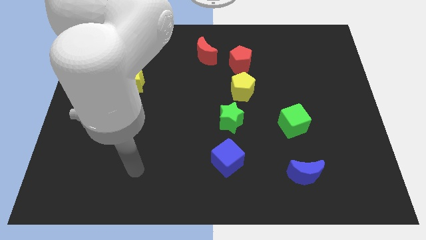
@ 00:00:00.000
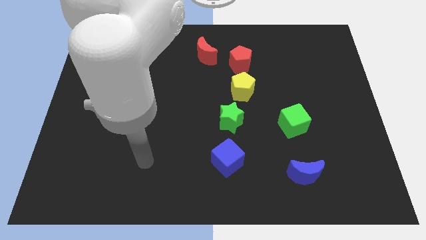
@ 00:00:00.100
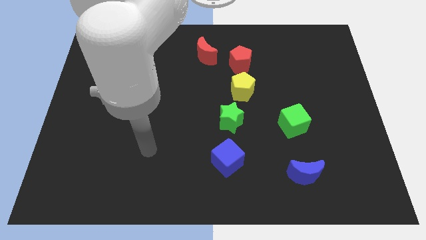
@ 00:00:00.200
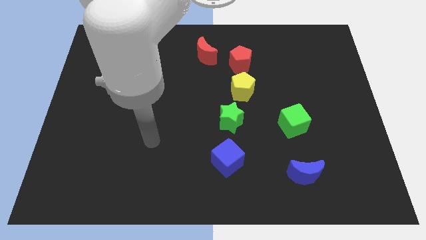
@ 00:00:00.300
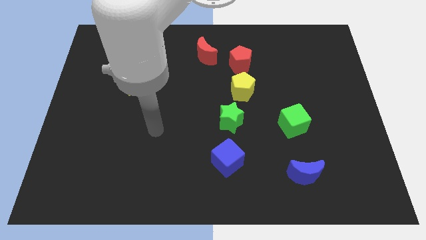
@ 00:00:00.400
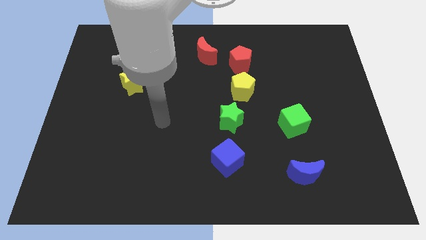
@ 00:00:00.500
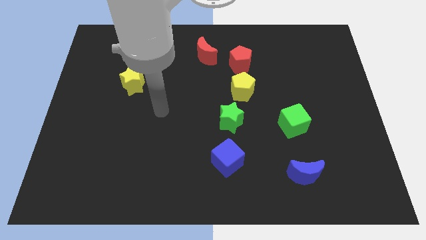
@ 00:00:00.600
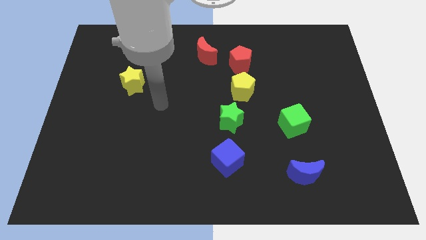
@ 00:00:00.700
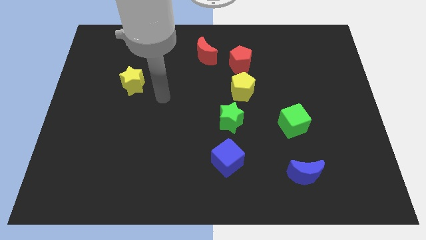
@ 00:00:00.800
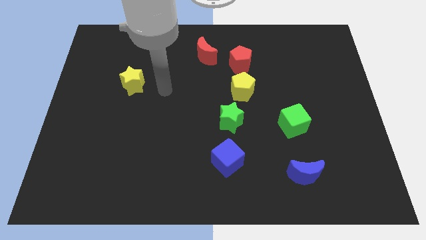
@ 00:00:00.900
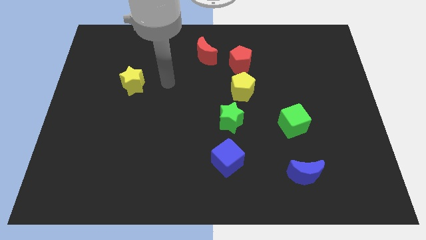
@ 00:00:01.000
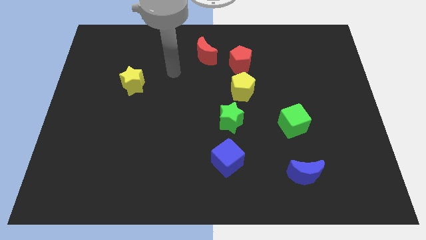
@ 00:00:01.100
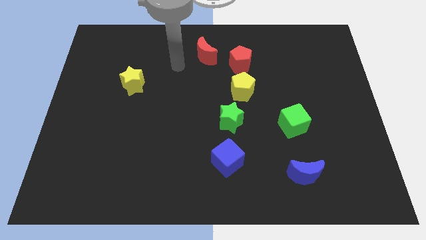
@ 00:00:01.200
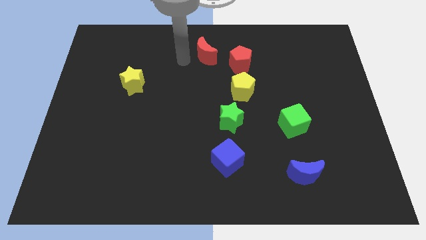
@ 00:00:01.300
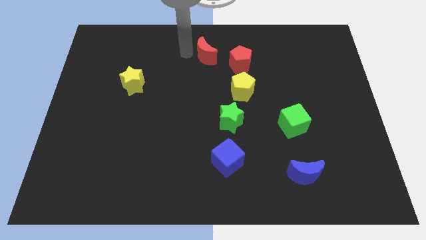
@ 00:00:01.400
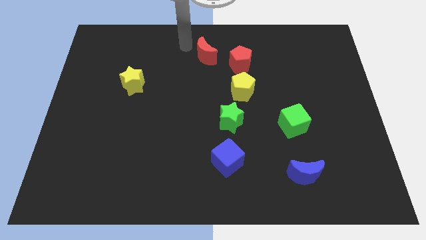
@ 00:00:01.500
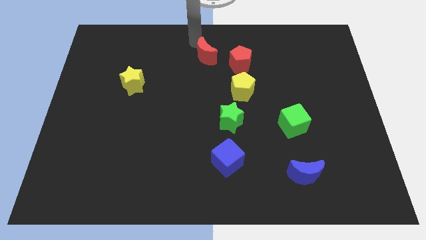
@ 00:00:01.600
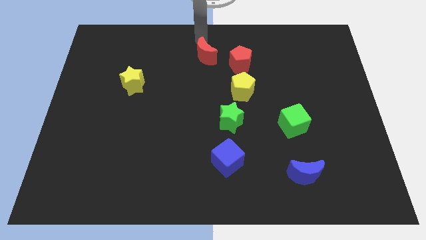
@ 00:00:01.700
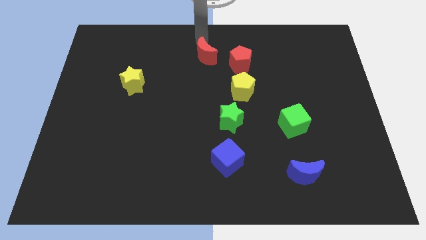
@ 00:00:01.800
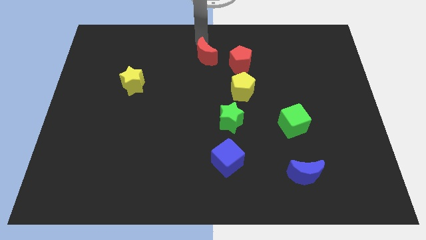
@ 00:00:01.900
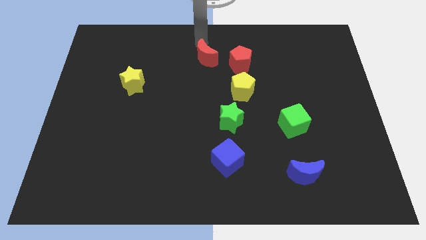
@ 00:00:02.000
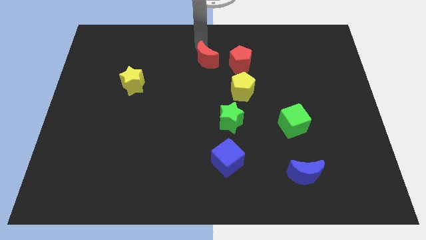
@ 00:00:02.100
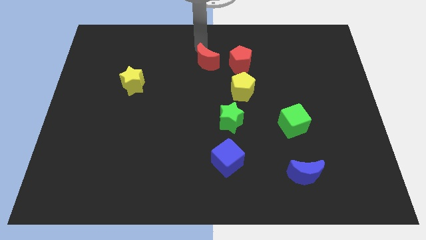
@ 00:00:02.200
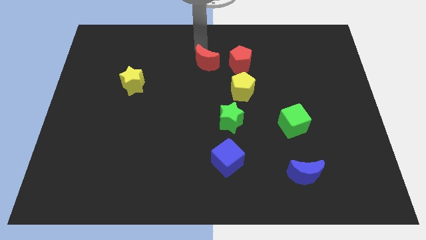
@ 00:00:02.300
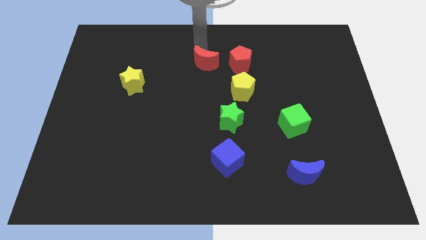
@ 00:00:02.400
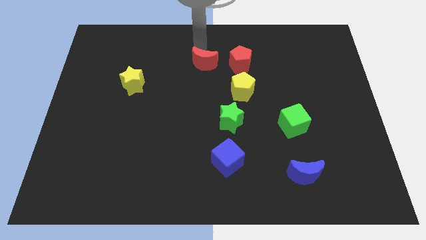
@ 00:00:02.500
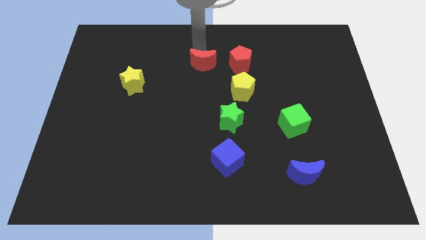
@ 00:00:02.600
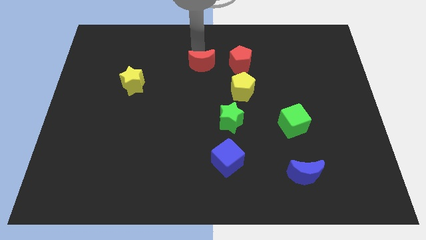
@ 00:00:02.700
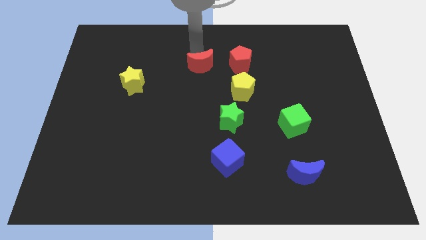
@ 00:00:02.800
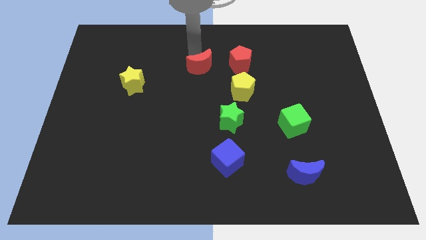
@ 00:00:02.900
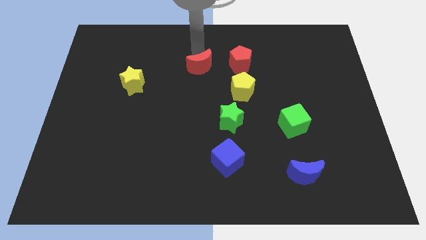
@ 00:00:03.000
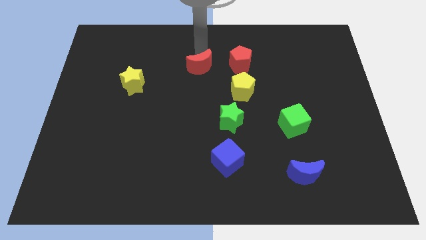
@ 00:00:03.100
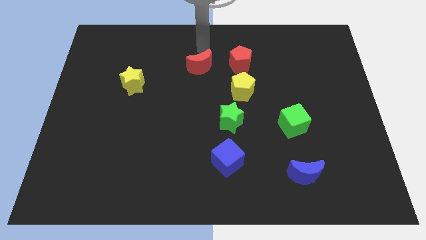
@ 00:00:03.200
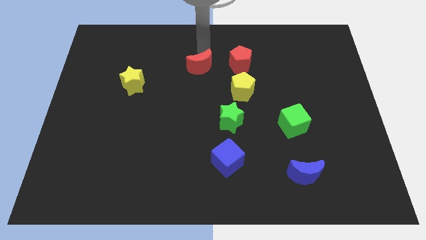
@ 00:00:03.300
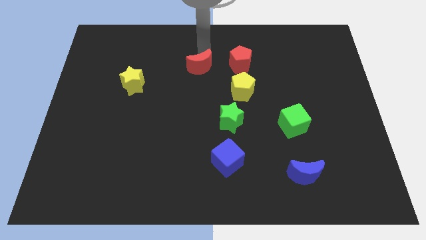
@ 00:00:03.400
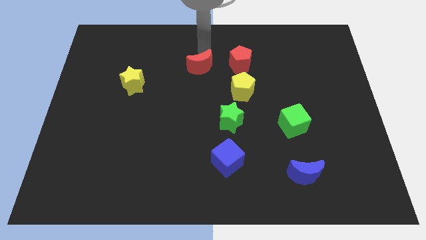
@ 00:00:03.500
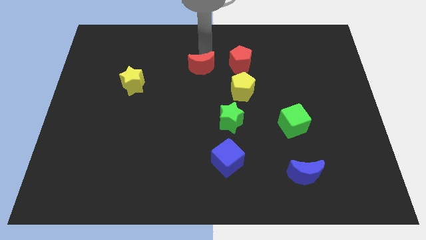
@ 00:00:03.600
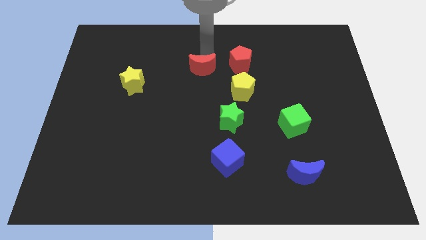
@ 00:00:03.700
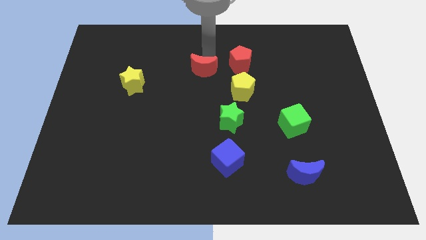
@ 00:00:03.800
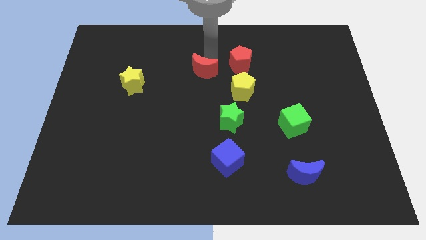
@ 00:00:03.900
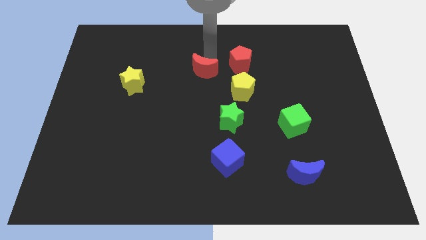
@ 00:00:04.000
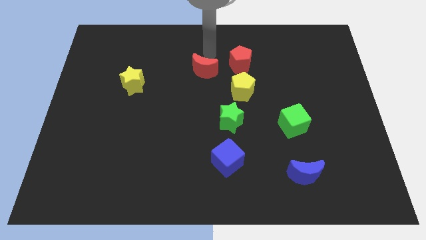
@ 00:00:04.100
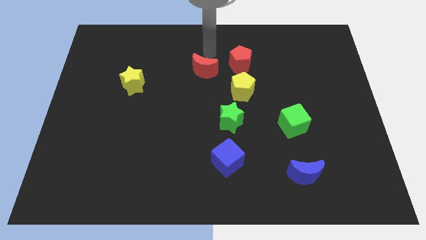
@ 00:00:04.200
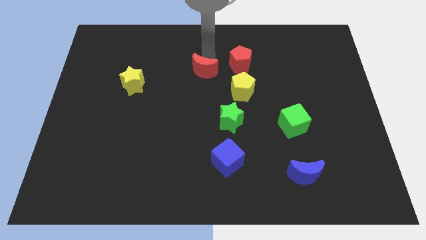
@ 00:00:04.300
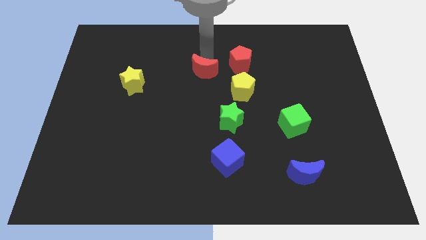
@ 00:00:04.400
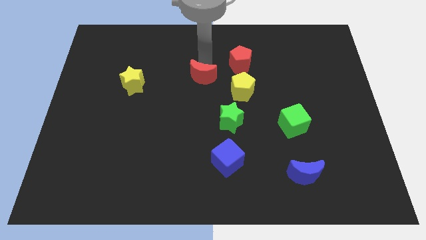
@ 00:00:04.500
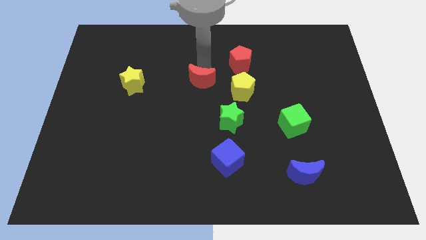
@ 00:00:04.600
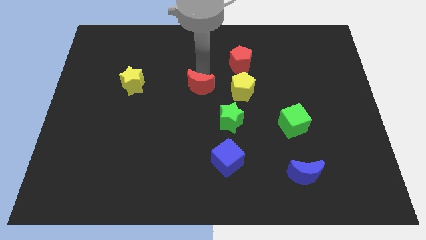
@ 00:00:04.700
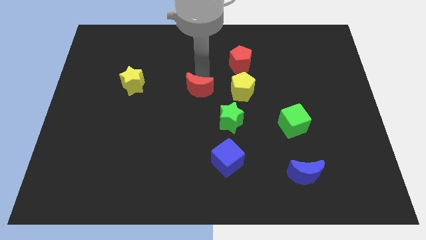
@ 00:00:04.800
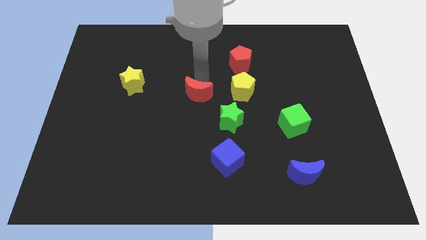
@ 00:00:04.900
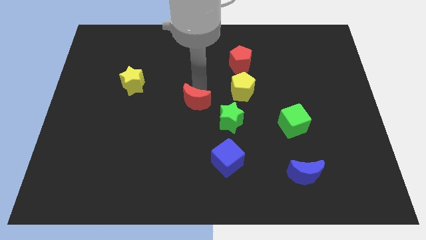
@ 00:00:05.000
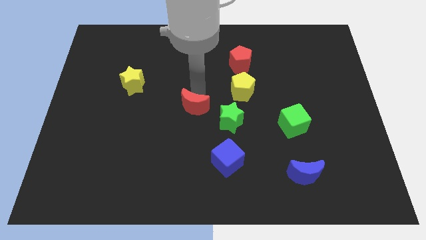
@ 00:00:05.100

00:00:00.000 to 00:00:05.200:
slide the red moon just left of the green star

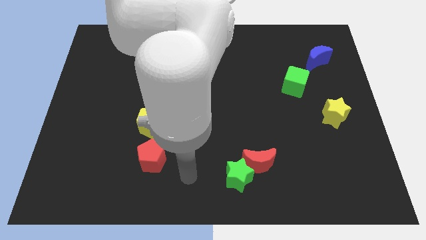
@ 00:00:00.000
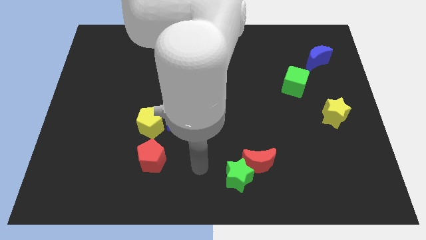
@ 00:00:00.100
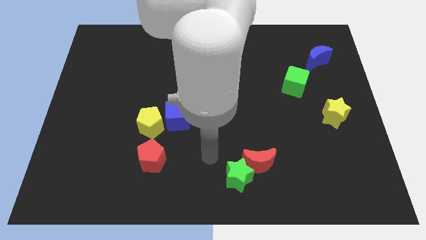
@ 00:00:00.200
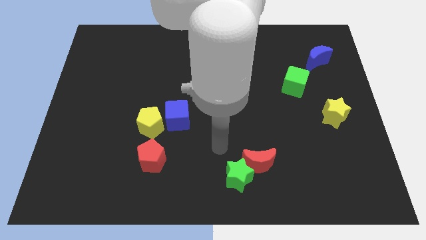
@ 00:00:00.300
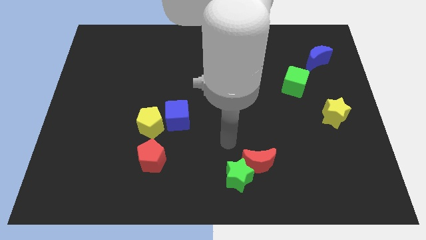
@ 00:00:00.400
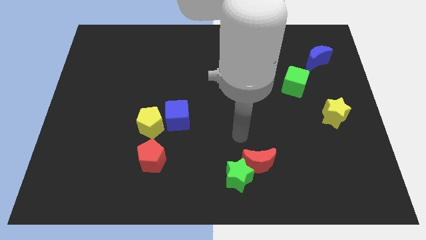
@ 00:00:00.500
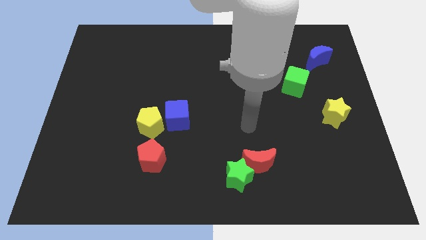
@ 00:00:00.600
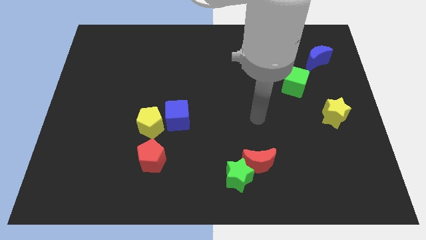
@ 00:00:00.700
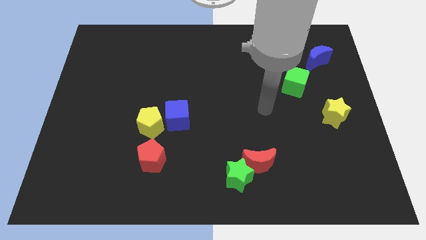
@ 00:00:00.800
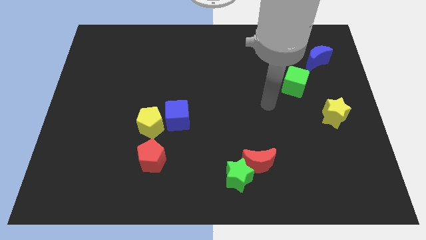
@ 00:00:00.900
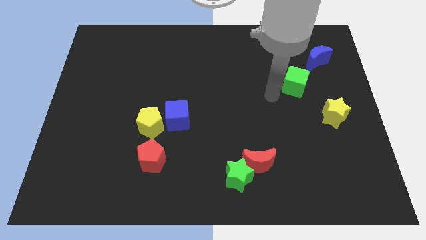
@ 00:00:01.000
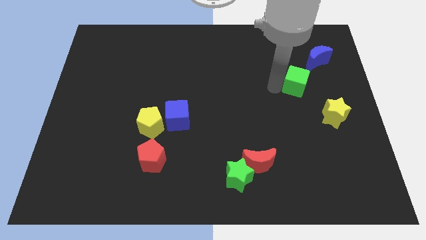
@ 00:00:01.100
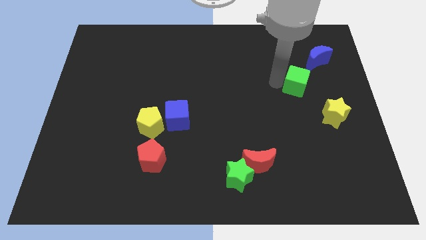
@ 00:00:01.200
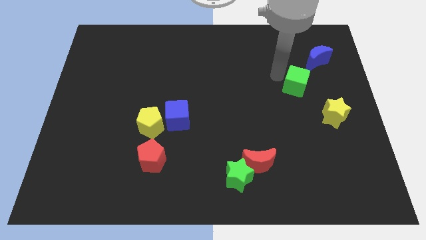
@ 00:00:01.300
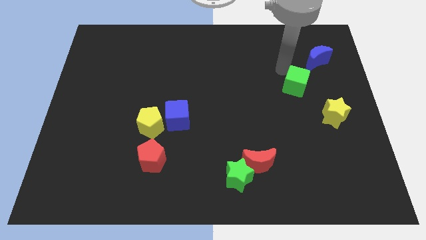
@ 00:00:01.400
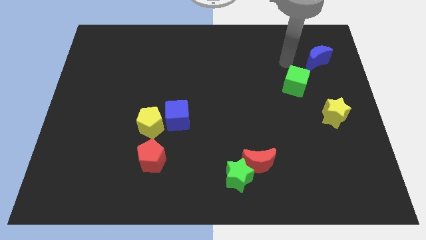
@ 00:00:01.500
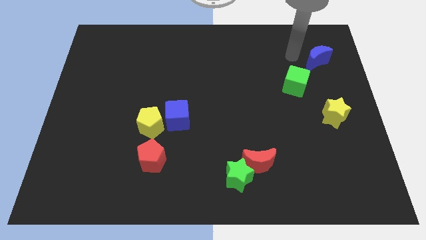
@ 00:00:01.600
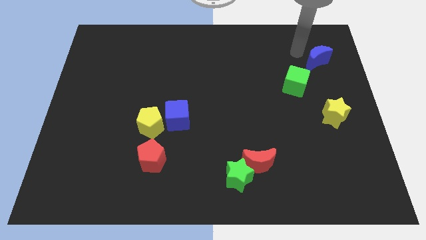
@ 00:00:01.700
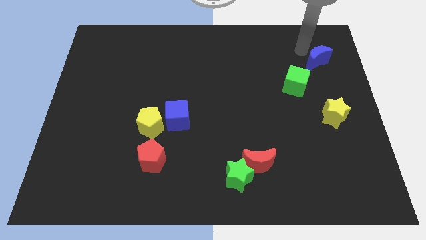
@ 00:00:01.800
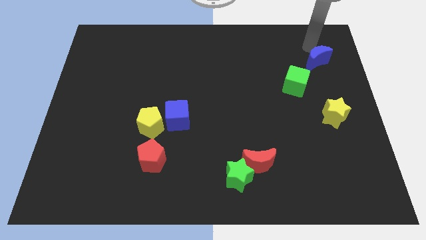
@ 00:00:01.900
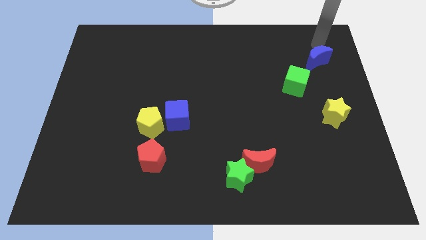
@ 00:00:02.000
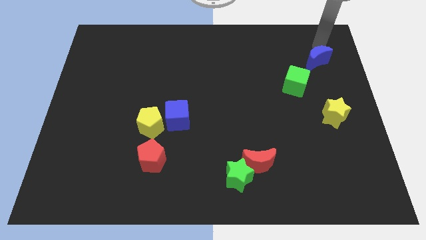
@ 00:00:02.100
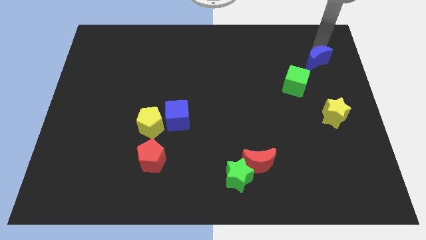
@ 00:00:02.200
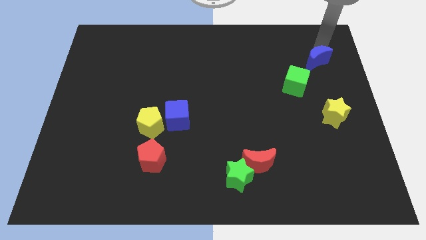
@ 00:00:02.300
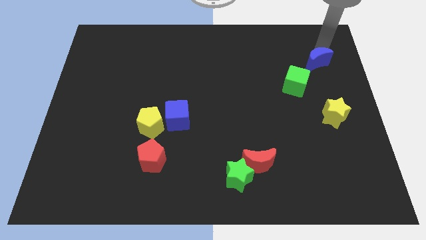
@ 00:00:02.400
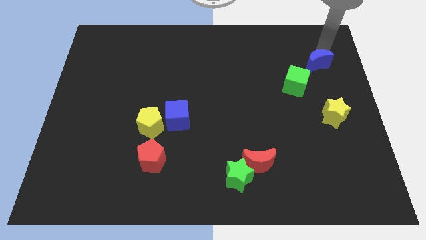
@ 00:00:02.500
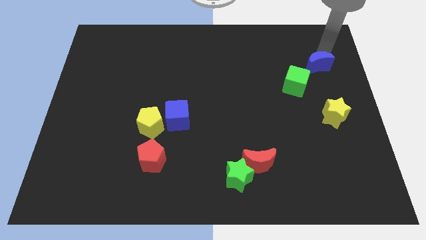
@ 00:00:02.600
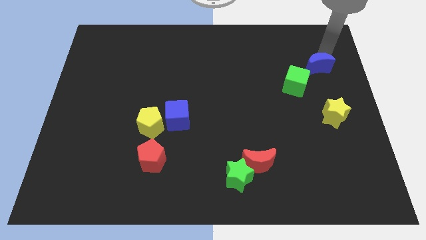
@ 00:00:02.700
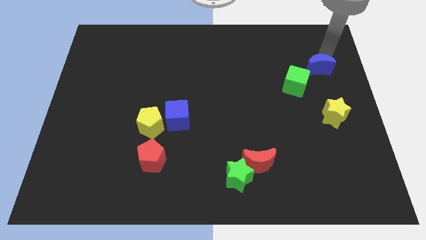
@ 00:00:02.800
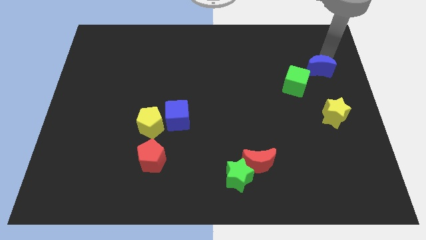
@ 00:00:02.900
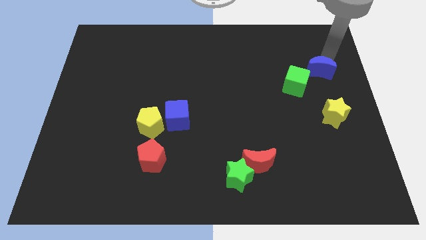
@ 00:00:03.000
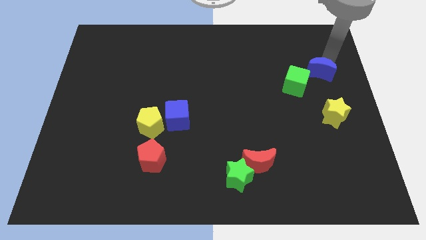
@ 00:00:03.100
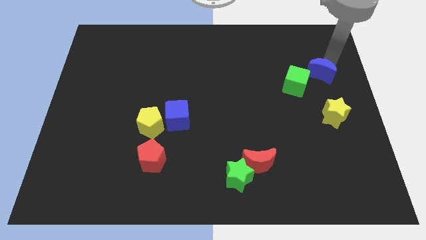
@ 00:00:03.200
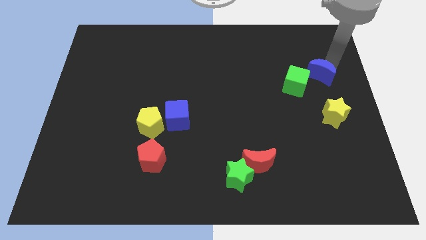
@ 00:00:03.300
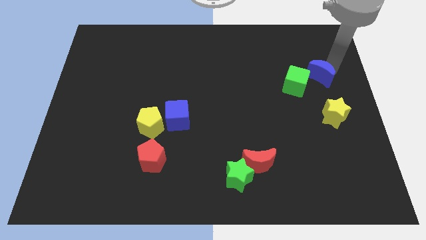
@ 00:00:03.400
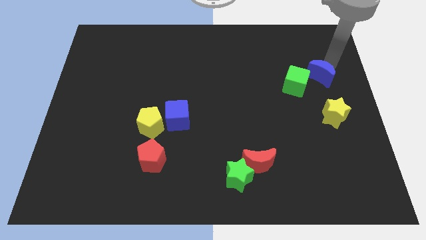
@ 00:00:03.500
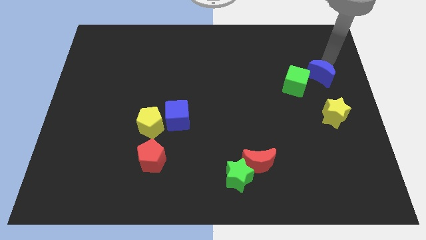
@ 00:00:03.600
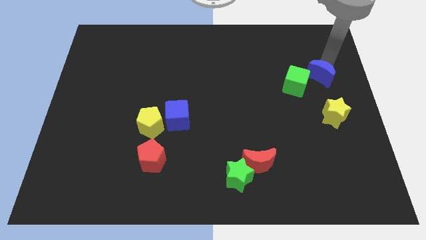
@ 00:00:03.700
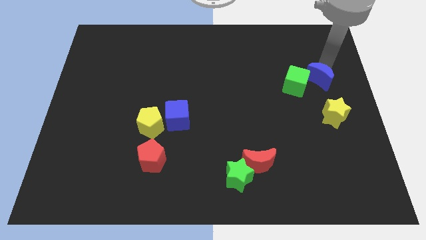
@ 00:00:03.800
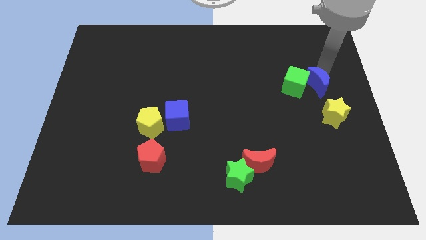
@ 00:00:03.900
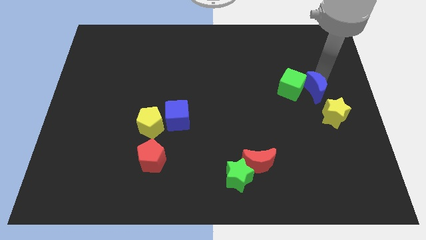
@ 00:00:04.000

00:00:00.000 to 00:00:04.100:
push the blue moon to the top left side of the yellow star
